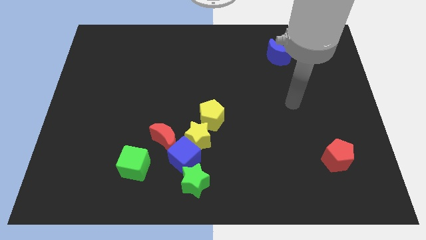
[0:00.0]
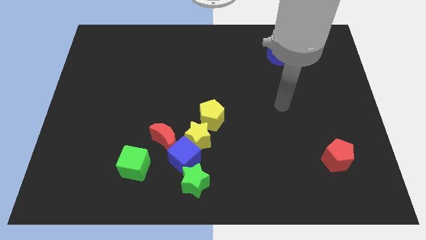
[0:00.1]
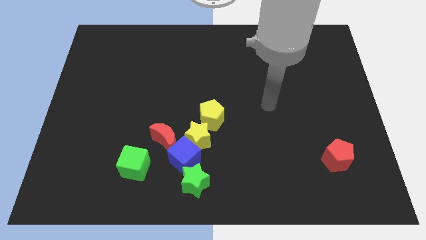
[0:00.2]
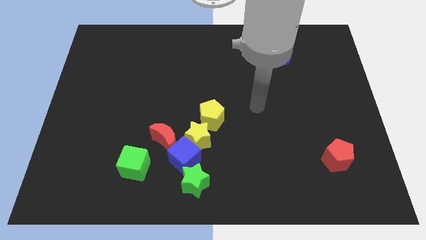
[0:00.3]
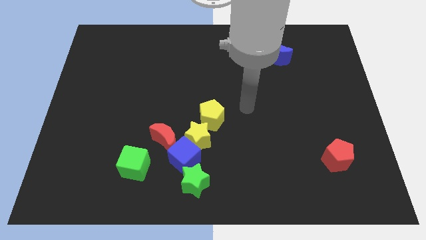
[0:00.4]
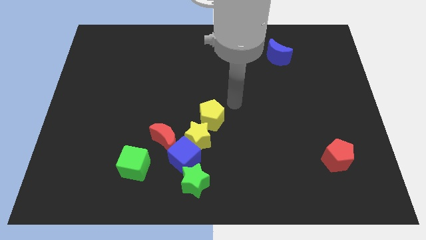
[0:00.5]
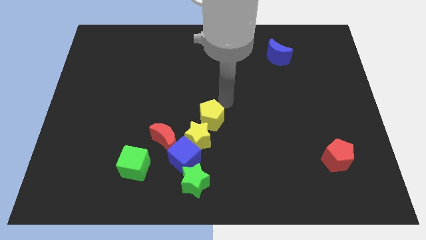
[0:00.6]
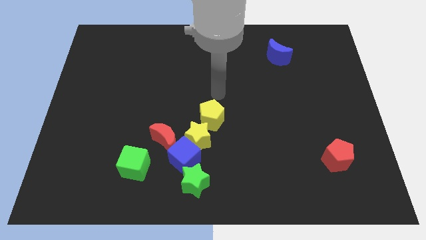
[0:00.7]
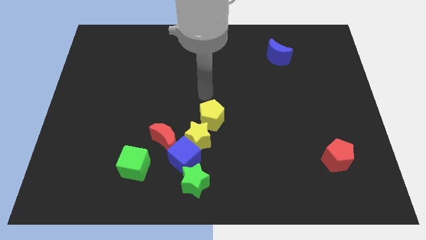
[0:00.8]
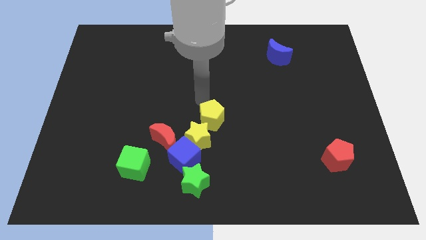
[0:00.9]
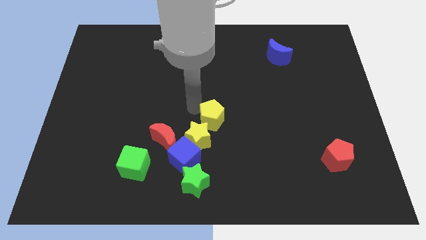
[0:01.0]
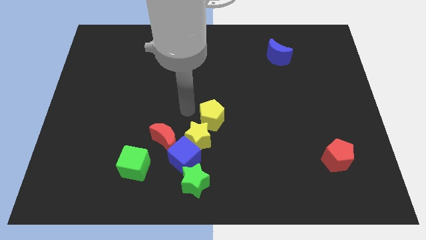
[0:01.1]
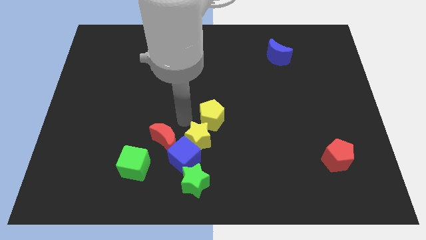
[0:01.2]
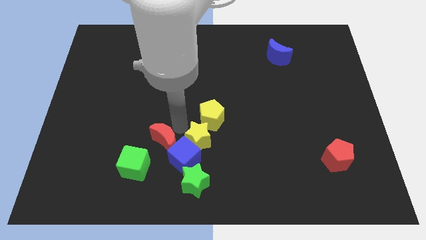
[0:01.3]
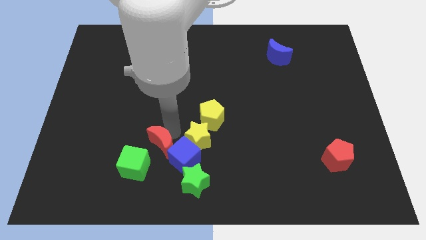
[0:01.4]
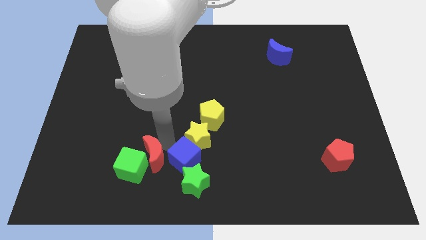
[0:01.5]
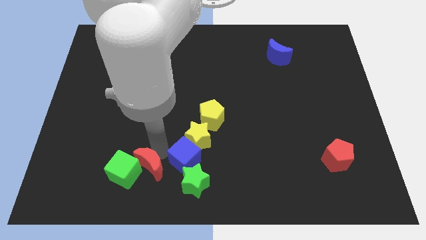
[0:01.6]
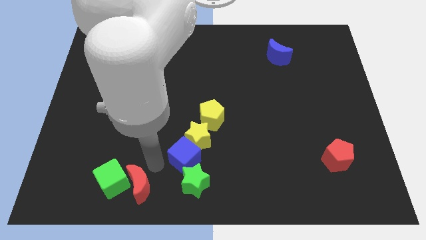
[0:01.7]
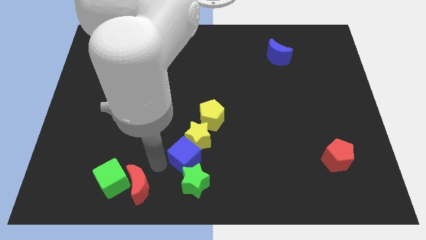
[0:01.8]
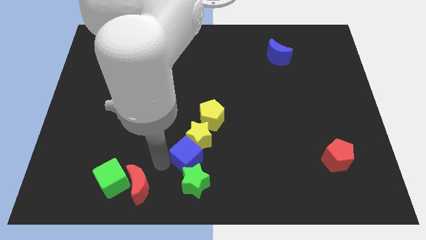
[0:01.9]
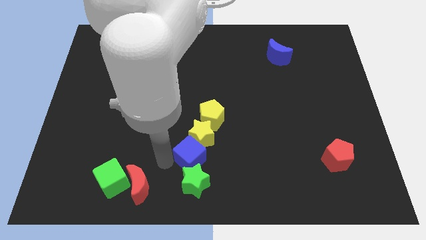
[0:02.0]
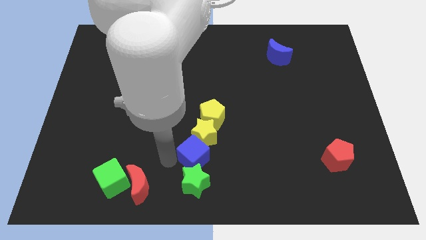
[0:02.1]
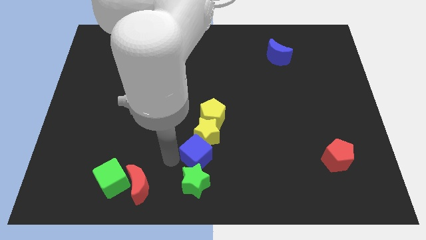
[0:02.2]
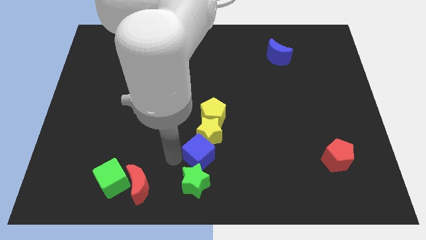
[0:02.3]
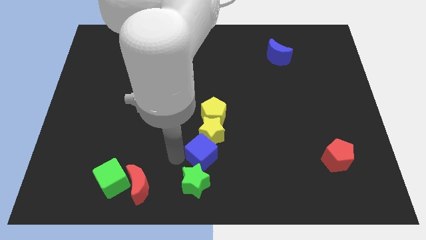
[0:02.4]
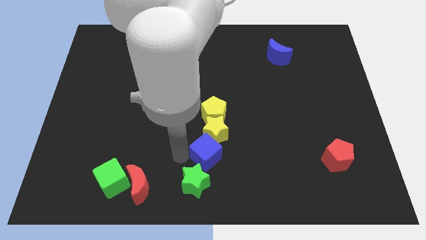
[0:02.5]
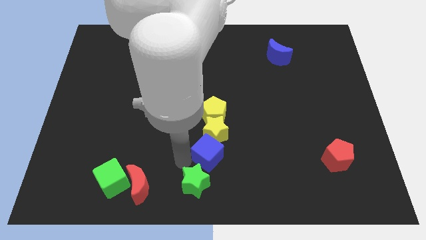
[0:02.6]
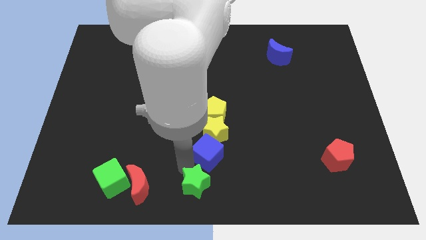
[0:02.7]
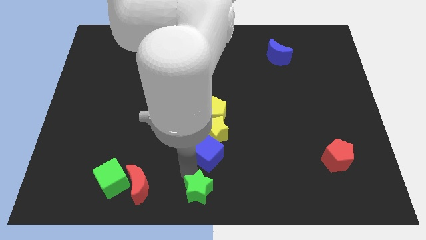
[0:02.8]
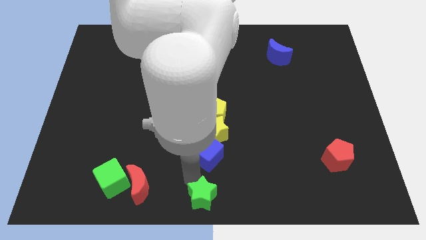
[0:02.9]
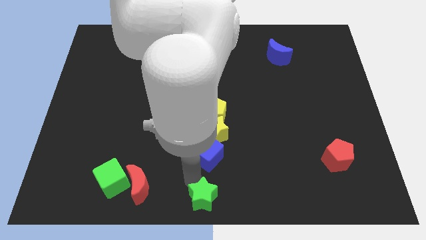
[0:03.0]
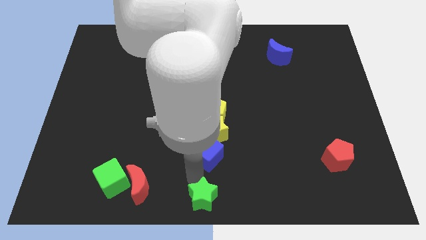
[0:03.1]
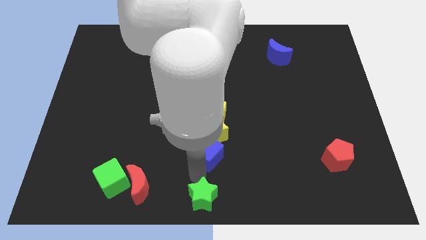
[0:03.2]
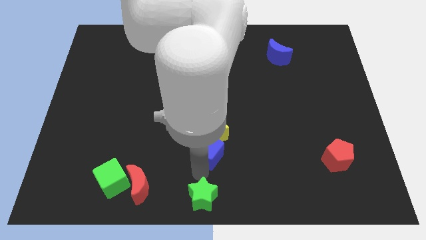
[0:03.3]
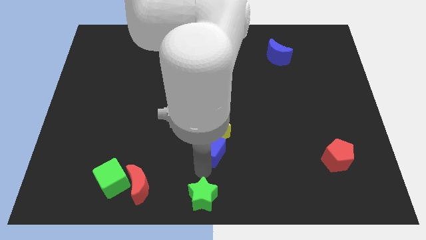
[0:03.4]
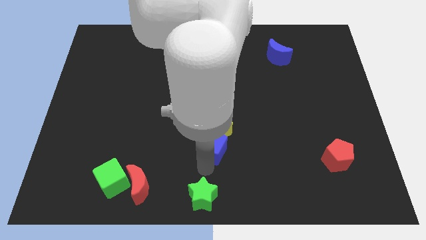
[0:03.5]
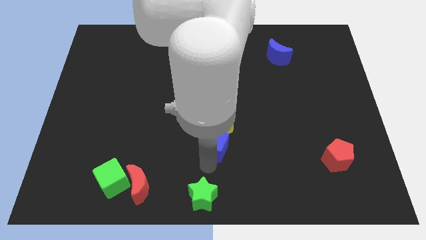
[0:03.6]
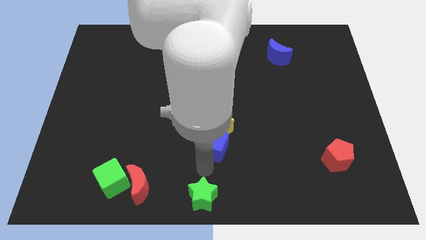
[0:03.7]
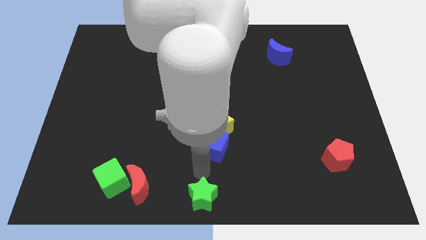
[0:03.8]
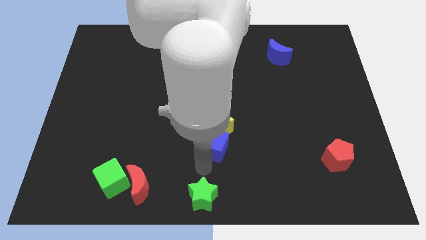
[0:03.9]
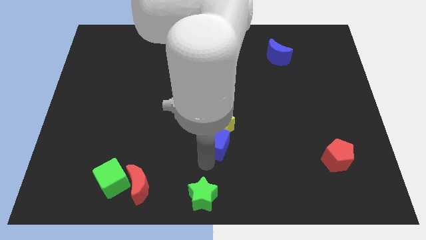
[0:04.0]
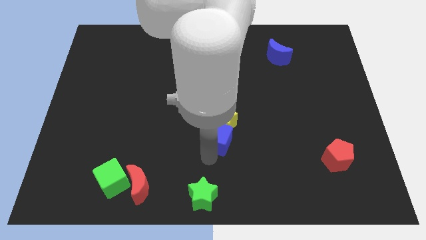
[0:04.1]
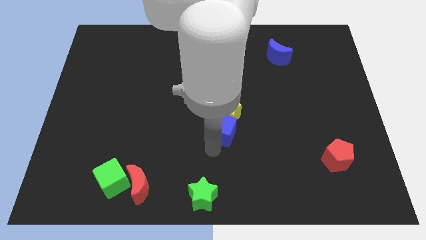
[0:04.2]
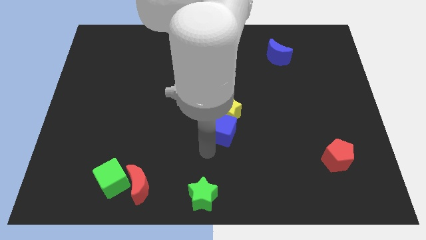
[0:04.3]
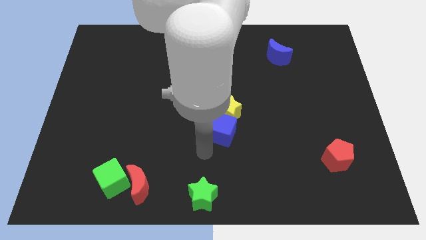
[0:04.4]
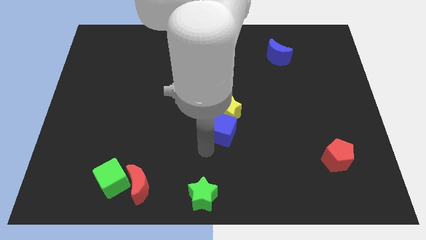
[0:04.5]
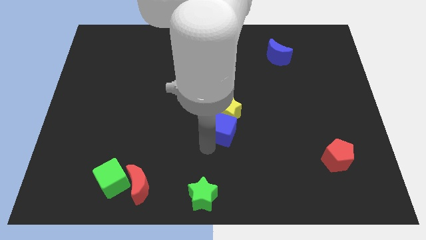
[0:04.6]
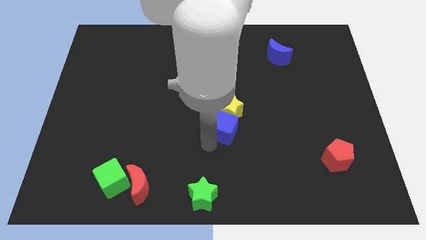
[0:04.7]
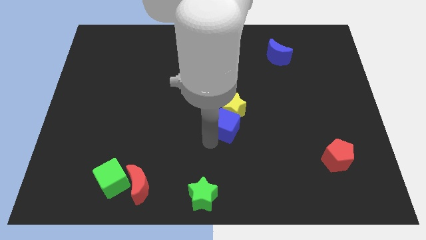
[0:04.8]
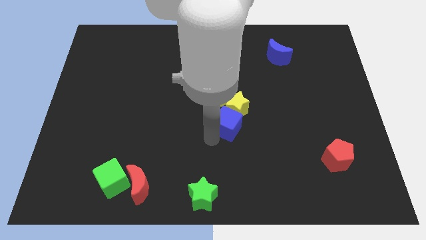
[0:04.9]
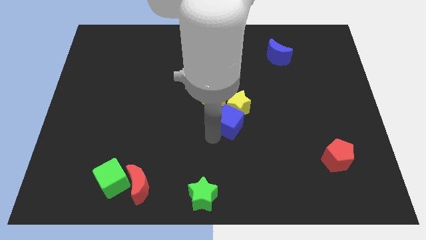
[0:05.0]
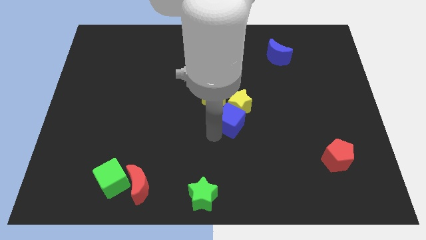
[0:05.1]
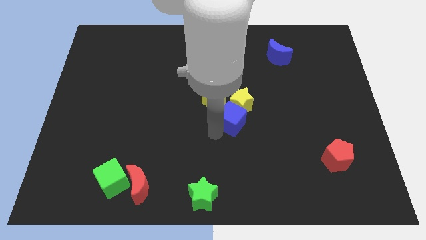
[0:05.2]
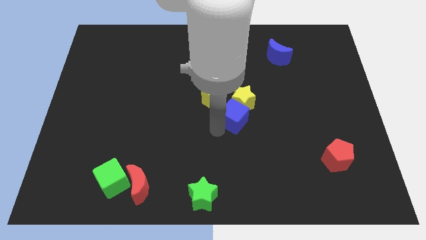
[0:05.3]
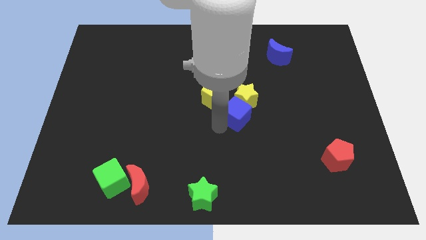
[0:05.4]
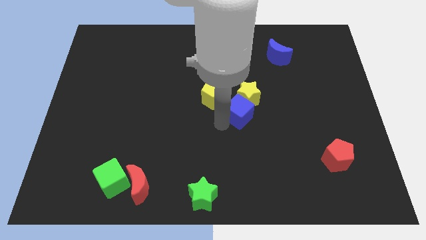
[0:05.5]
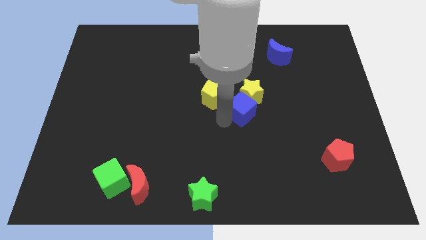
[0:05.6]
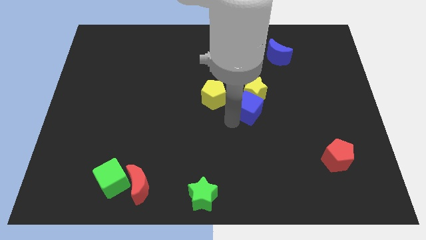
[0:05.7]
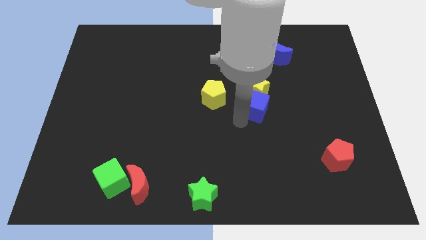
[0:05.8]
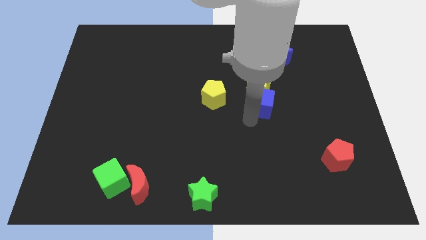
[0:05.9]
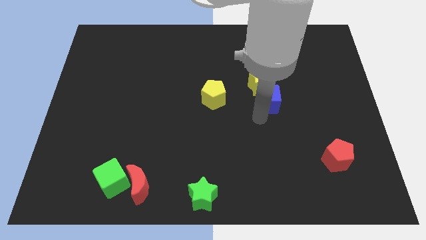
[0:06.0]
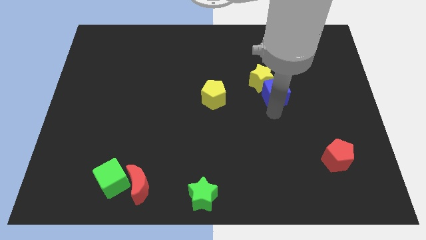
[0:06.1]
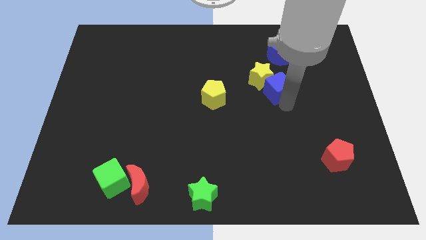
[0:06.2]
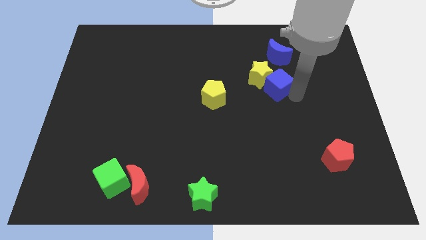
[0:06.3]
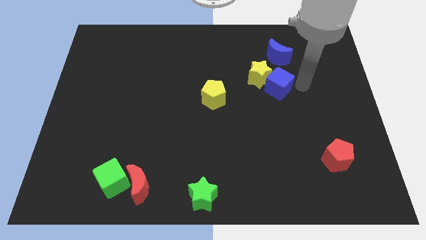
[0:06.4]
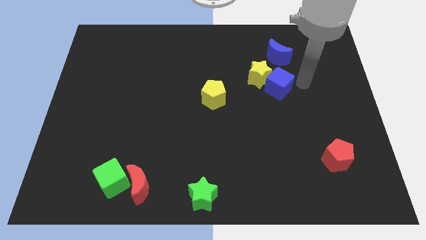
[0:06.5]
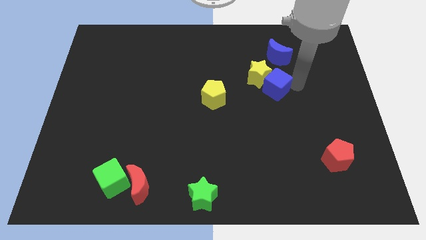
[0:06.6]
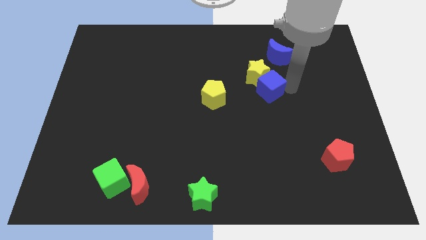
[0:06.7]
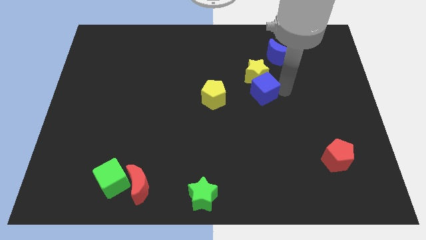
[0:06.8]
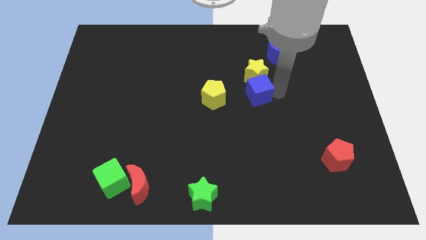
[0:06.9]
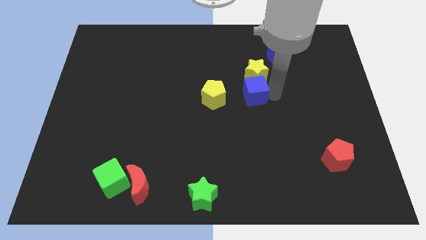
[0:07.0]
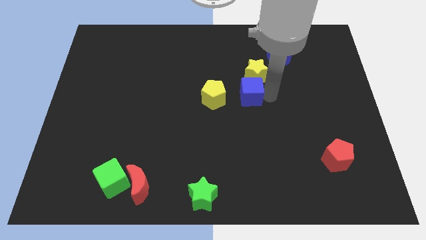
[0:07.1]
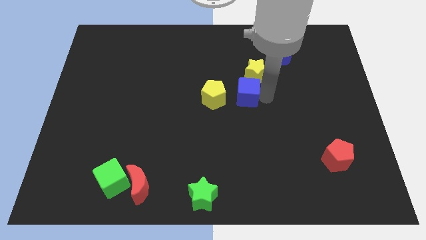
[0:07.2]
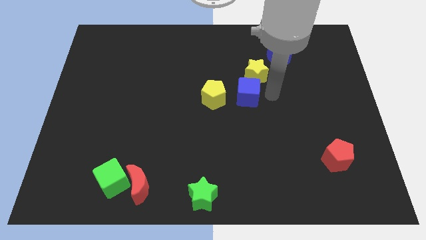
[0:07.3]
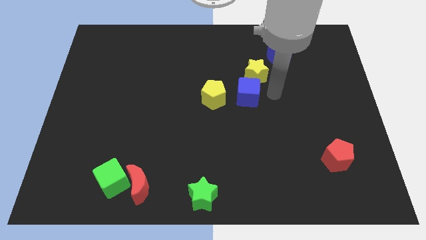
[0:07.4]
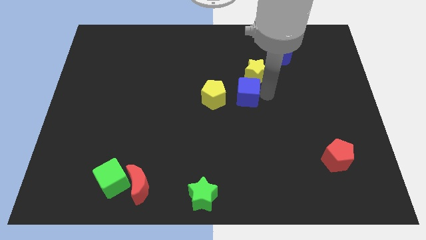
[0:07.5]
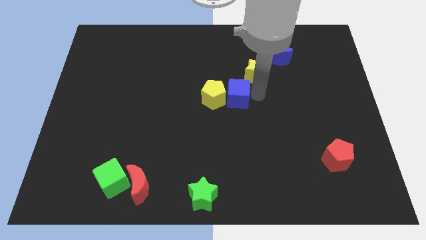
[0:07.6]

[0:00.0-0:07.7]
move the blue cube upwards a little bit

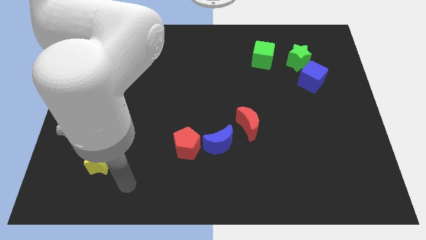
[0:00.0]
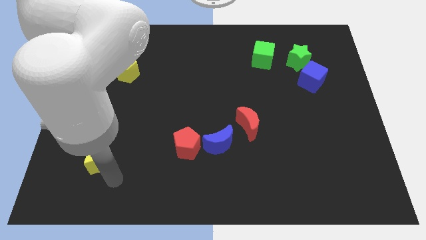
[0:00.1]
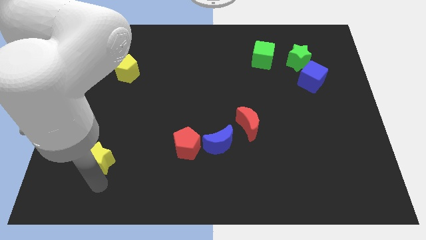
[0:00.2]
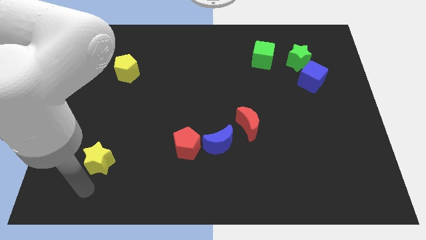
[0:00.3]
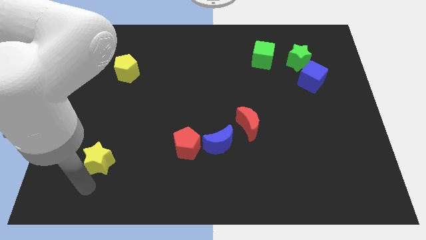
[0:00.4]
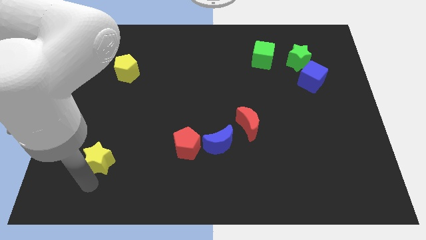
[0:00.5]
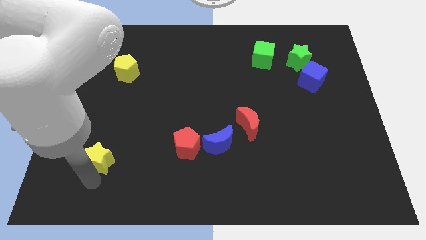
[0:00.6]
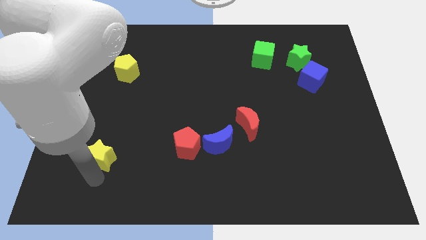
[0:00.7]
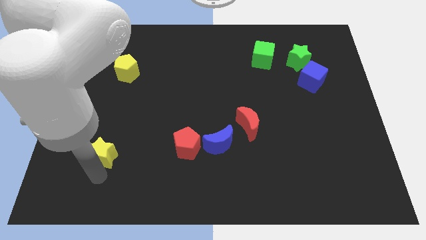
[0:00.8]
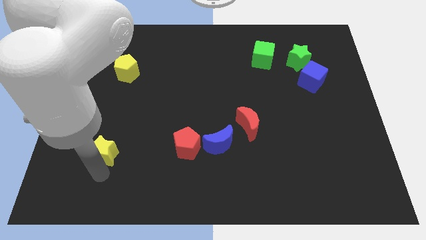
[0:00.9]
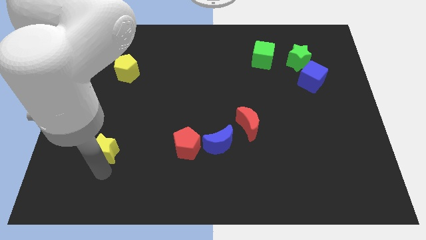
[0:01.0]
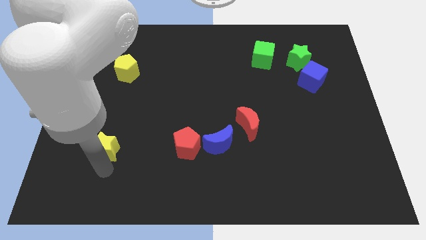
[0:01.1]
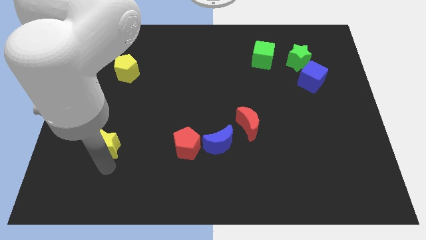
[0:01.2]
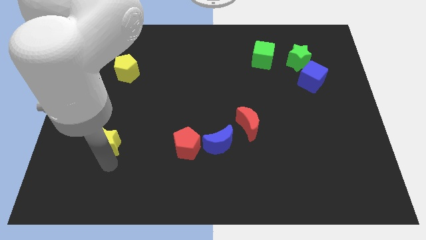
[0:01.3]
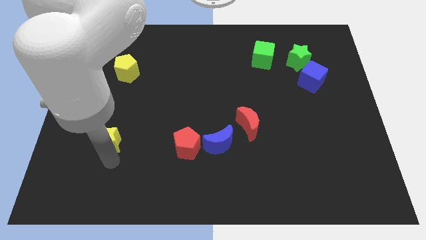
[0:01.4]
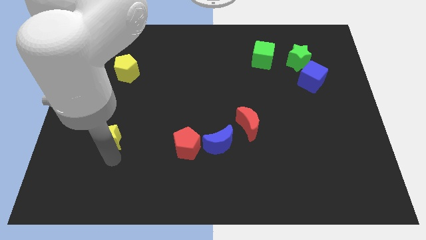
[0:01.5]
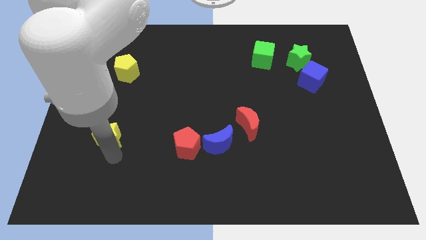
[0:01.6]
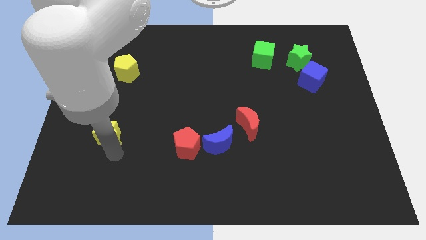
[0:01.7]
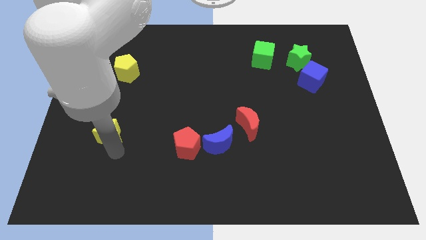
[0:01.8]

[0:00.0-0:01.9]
slightly slide the yellow star up
